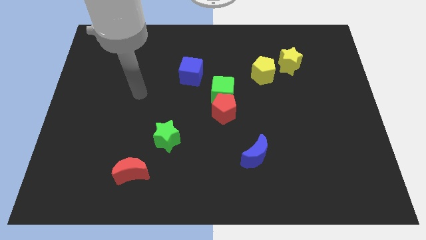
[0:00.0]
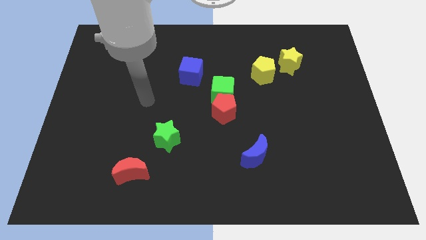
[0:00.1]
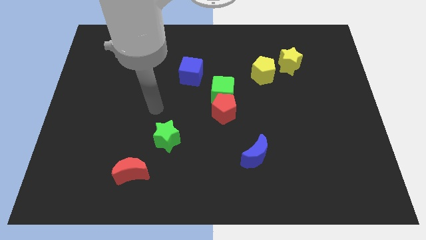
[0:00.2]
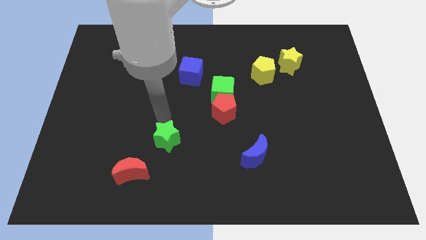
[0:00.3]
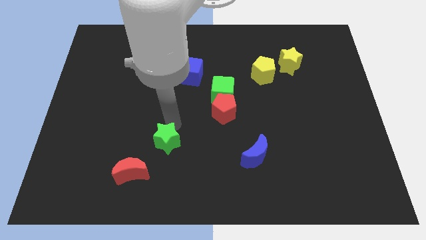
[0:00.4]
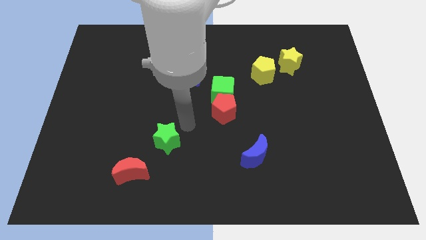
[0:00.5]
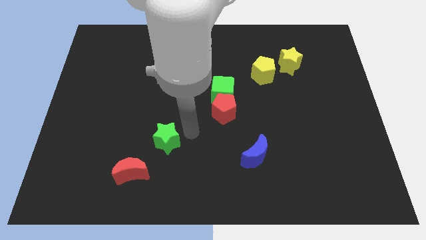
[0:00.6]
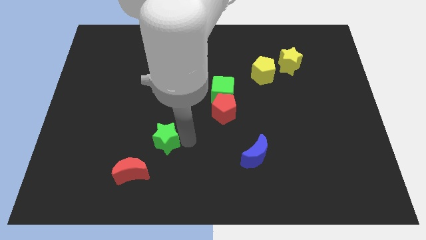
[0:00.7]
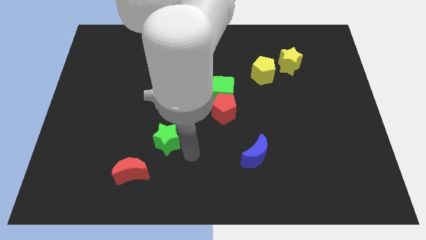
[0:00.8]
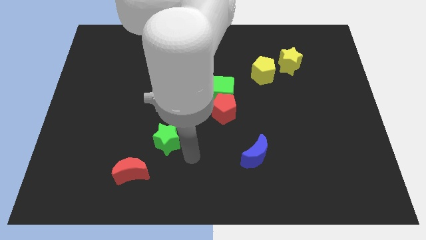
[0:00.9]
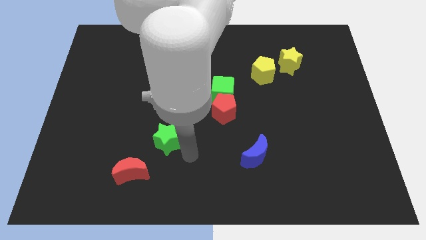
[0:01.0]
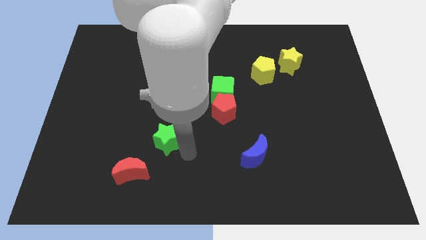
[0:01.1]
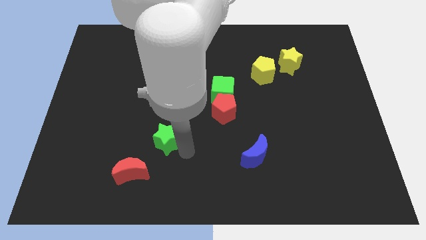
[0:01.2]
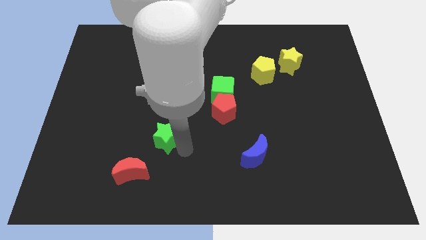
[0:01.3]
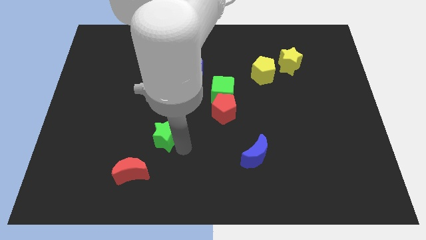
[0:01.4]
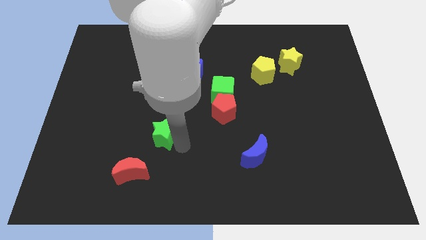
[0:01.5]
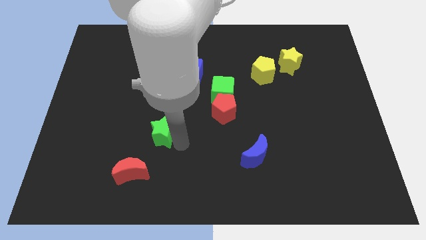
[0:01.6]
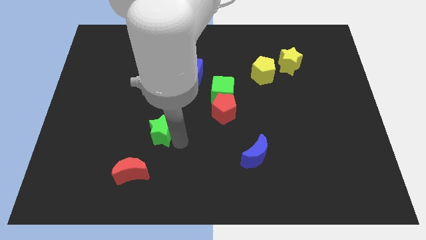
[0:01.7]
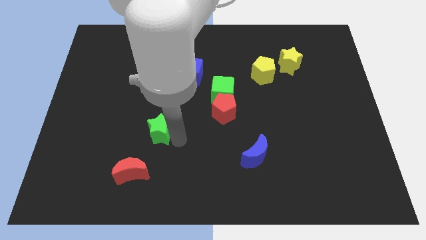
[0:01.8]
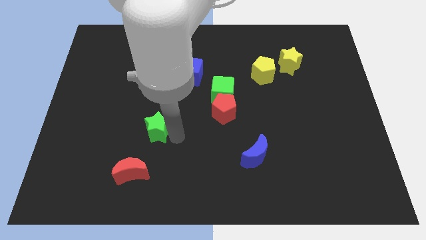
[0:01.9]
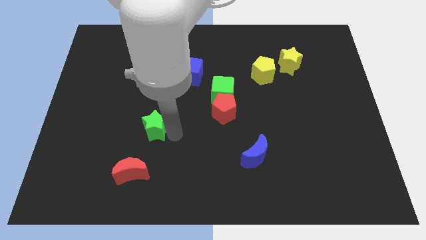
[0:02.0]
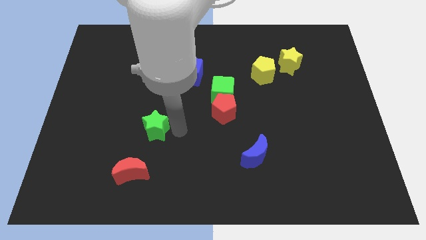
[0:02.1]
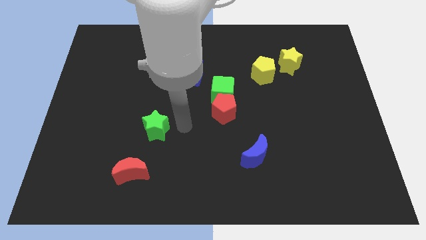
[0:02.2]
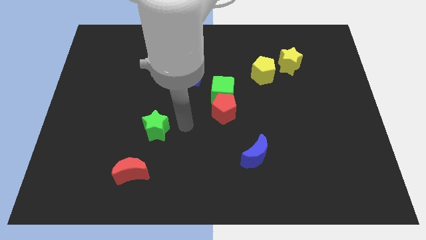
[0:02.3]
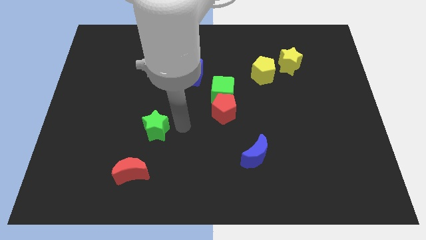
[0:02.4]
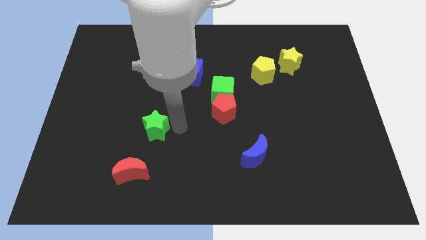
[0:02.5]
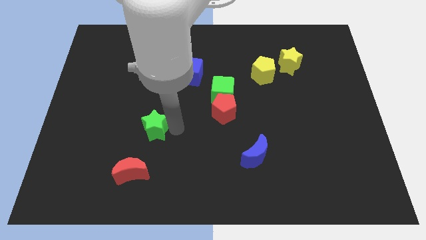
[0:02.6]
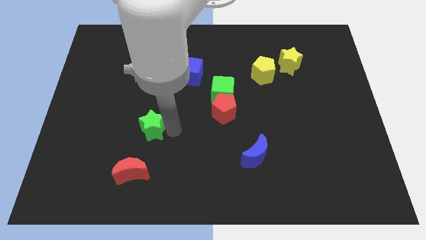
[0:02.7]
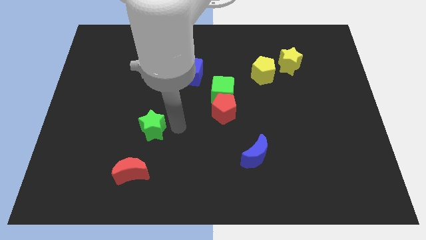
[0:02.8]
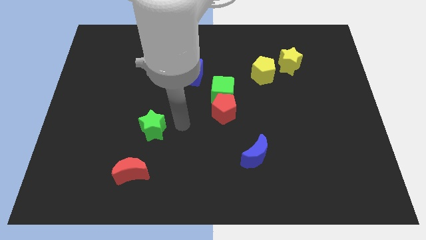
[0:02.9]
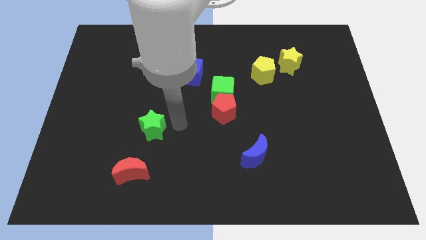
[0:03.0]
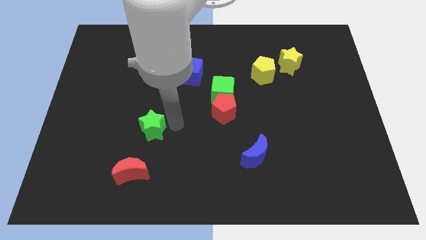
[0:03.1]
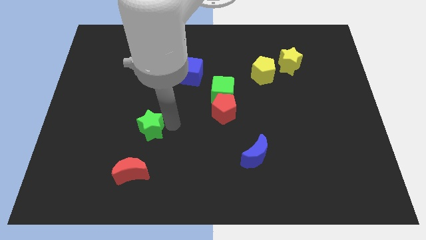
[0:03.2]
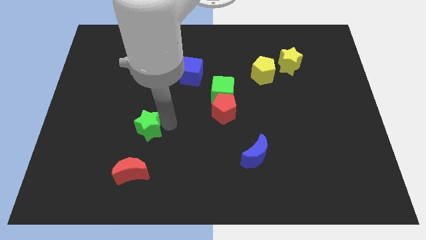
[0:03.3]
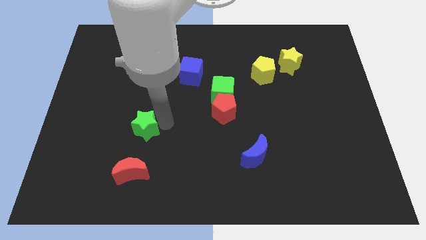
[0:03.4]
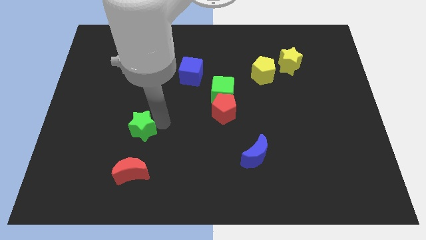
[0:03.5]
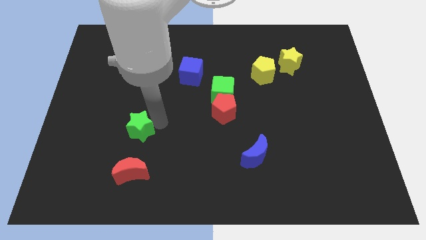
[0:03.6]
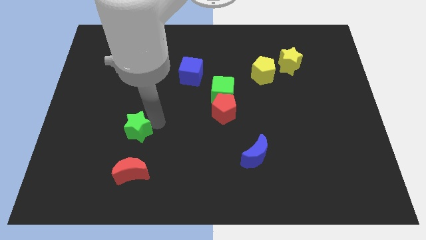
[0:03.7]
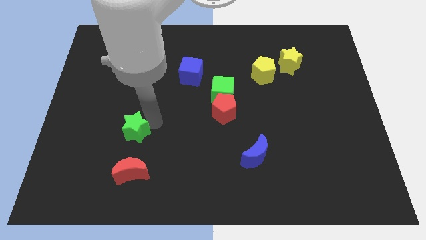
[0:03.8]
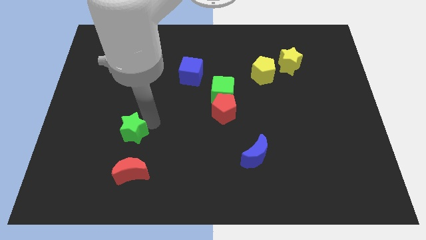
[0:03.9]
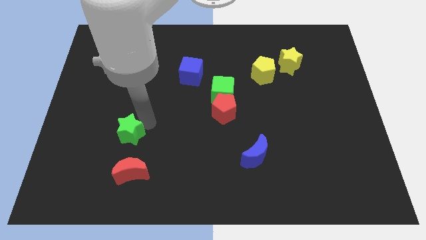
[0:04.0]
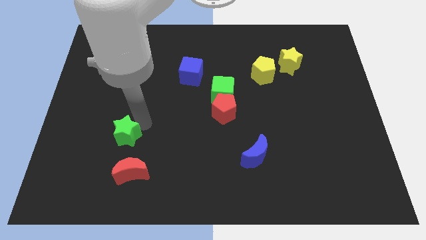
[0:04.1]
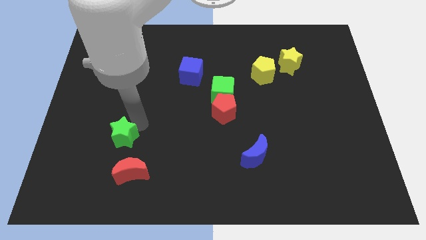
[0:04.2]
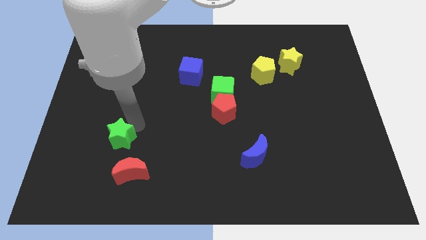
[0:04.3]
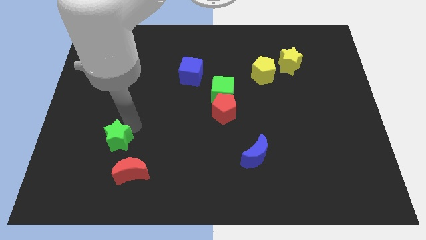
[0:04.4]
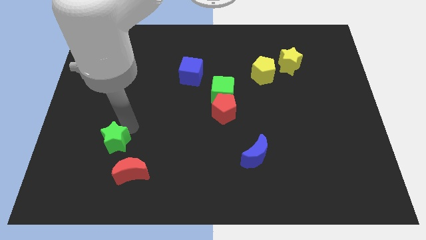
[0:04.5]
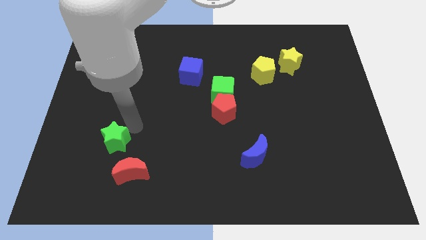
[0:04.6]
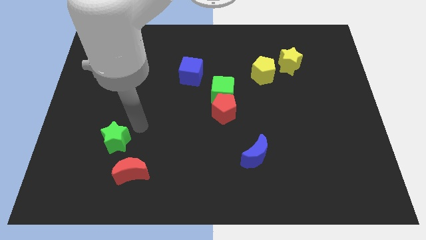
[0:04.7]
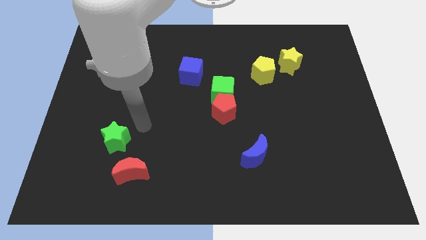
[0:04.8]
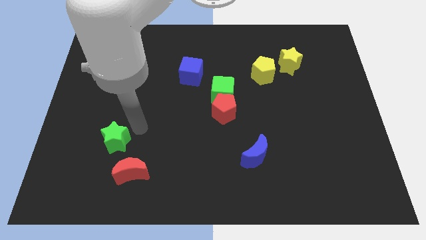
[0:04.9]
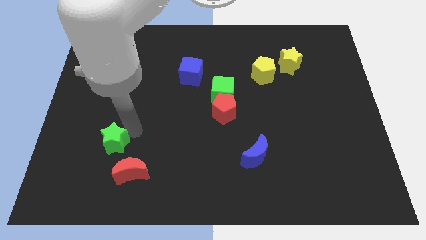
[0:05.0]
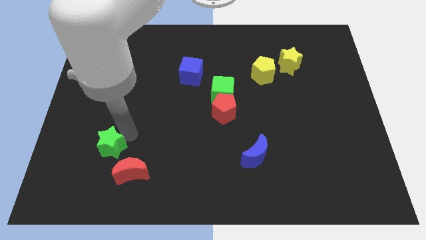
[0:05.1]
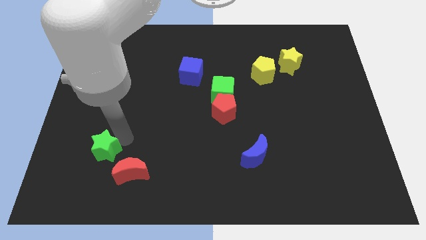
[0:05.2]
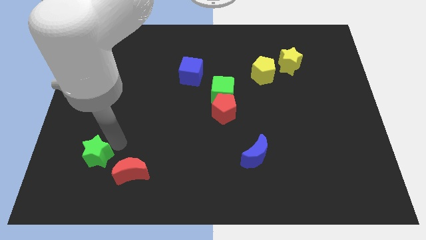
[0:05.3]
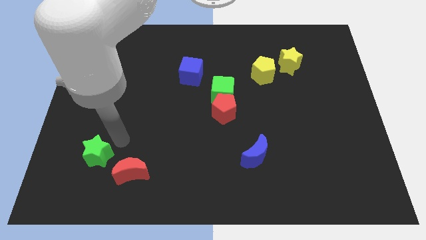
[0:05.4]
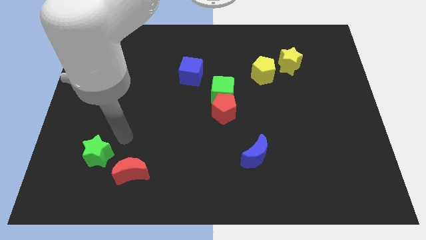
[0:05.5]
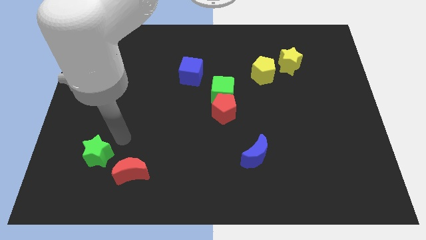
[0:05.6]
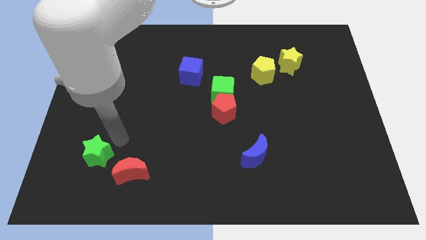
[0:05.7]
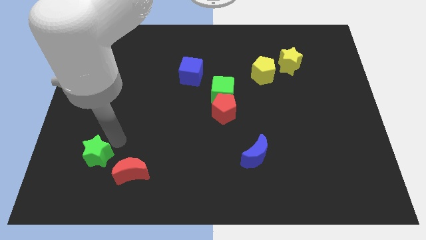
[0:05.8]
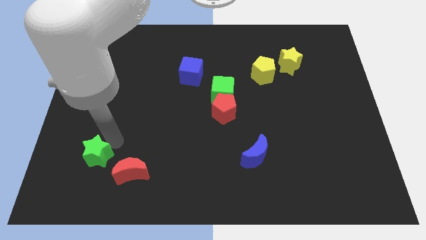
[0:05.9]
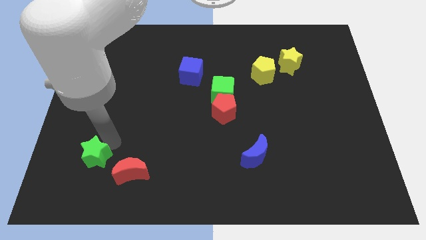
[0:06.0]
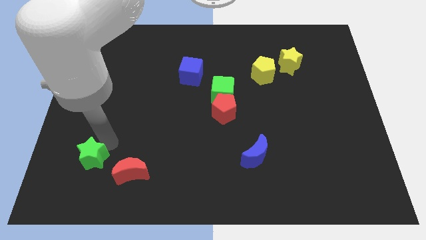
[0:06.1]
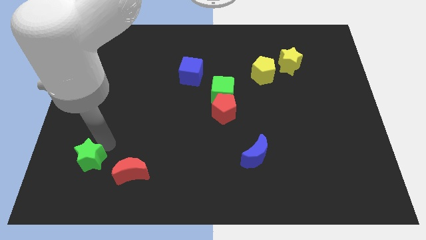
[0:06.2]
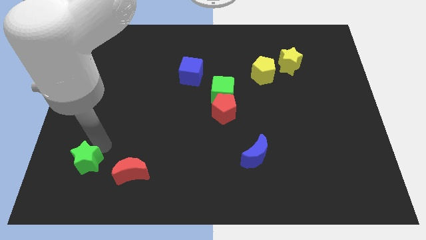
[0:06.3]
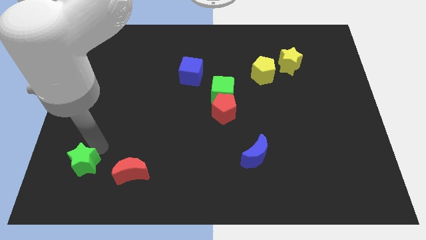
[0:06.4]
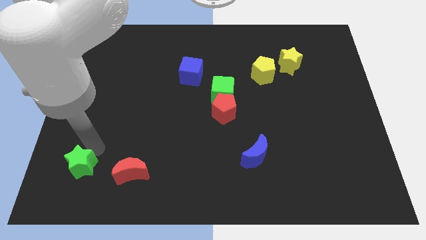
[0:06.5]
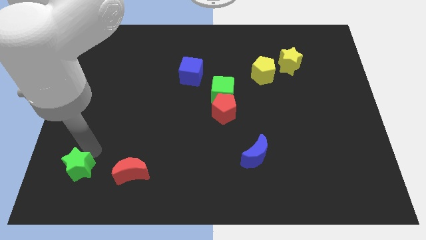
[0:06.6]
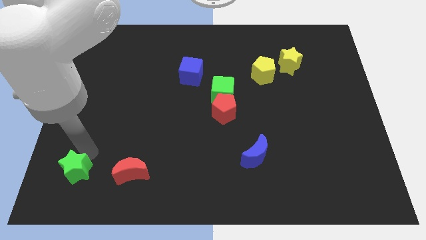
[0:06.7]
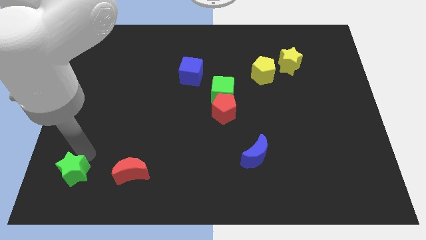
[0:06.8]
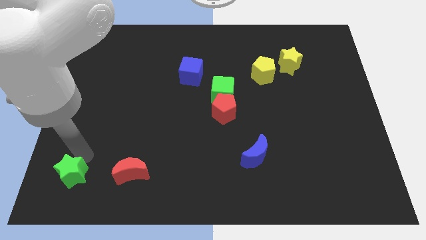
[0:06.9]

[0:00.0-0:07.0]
push the green star to the bottom left

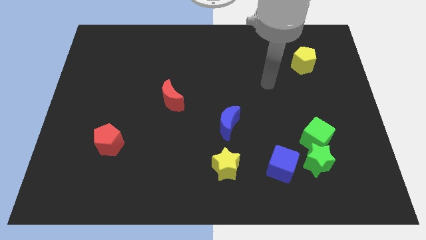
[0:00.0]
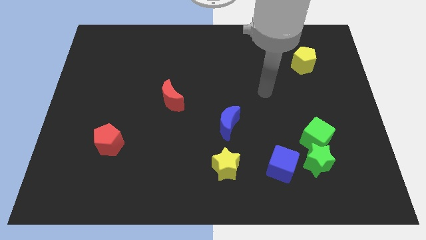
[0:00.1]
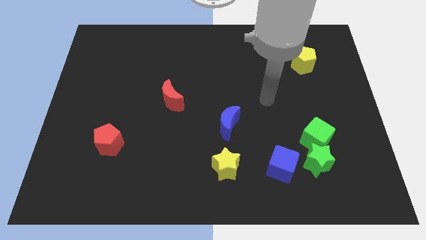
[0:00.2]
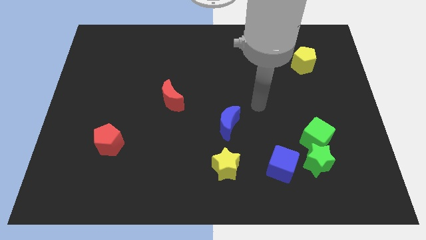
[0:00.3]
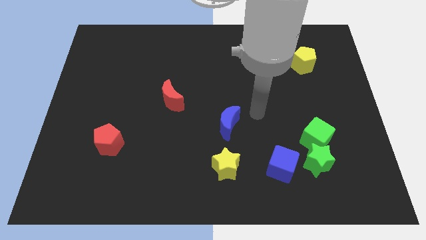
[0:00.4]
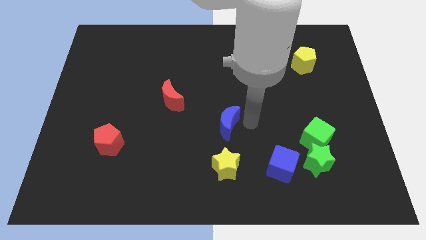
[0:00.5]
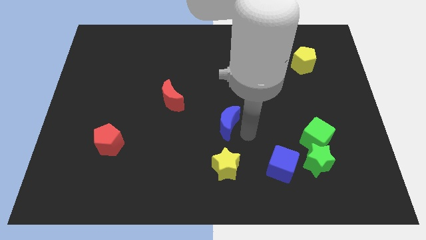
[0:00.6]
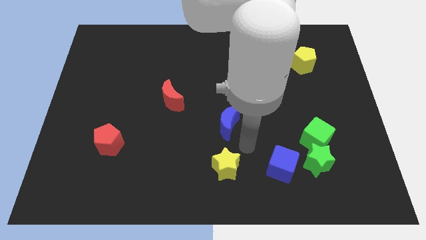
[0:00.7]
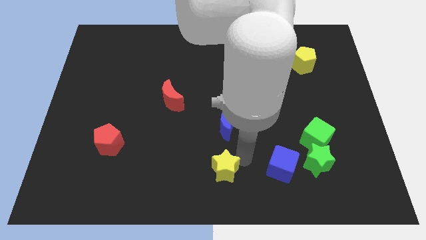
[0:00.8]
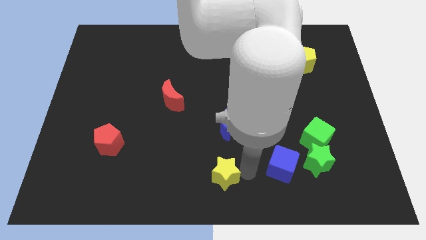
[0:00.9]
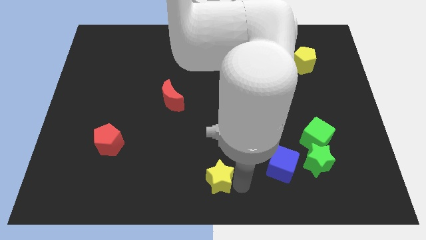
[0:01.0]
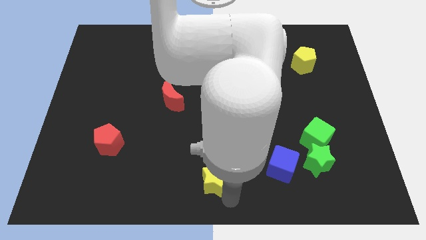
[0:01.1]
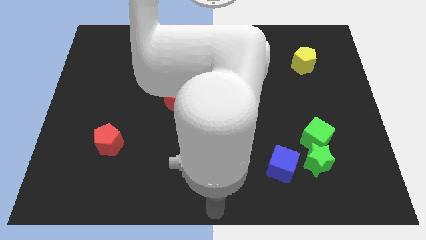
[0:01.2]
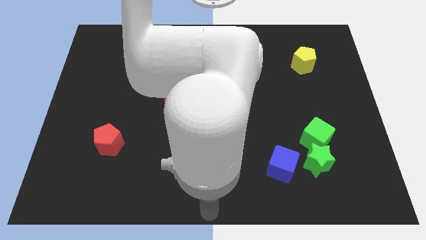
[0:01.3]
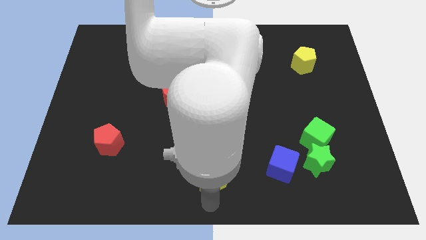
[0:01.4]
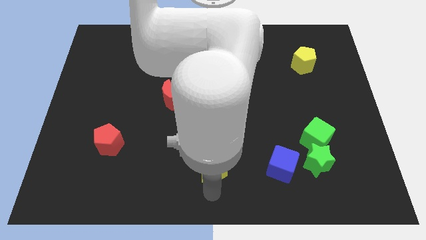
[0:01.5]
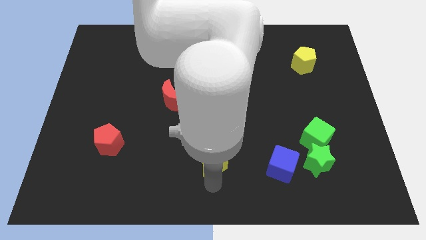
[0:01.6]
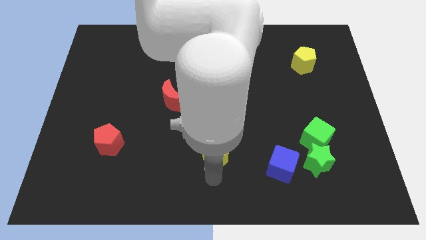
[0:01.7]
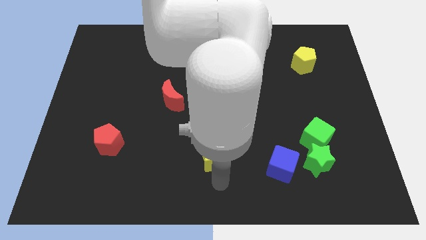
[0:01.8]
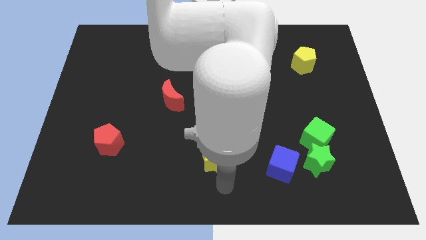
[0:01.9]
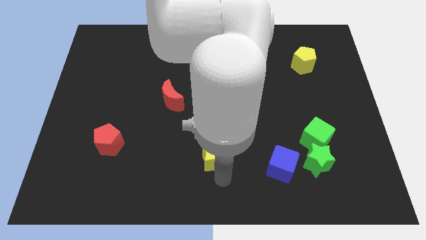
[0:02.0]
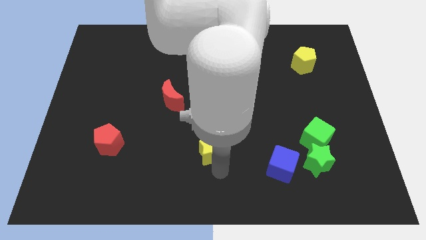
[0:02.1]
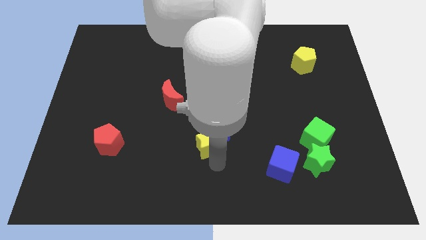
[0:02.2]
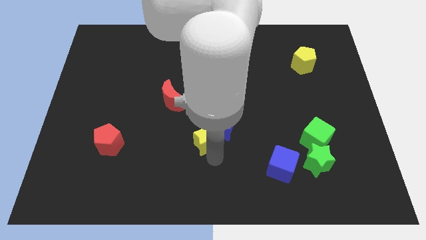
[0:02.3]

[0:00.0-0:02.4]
push the yellow star to the middle
